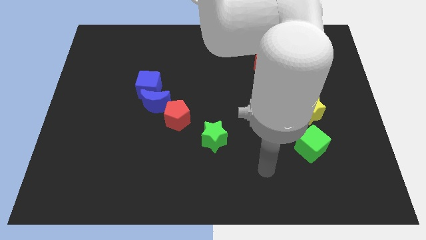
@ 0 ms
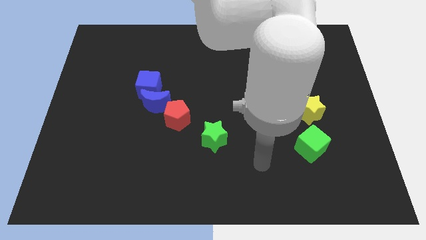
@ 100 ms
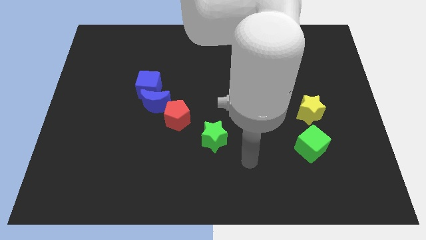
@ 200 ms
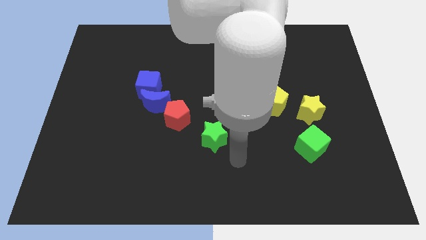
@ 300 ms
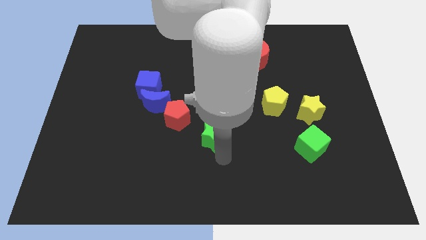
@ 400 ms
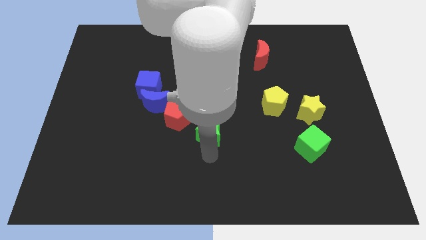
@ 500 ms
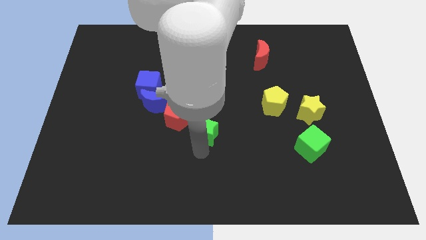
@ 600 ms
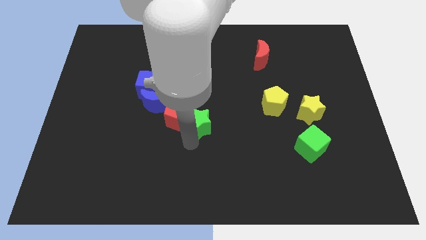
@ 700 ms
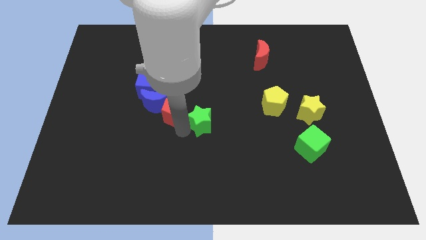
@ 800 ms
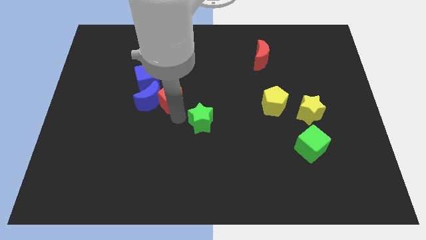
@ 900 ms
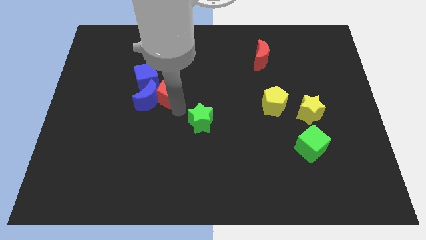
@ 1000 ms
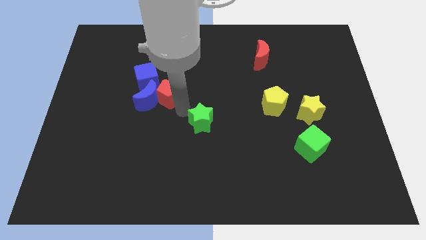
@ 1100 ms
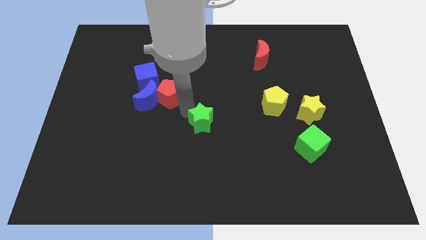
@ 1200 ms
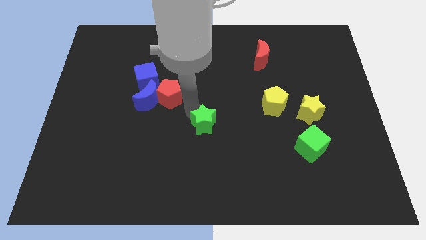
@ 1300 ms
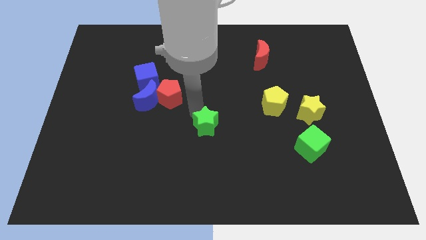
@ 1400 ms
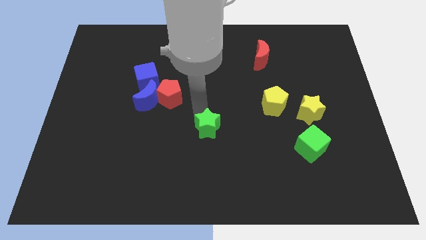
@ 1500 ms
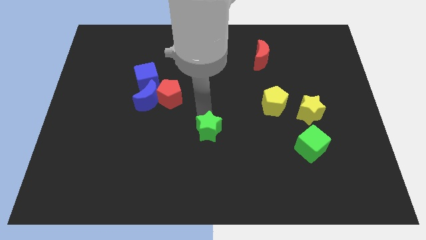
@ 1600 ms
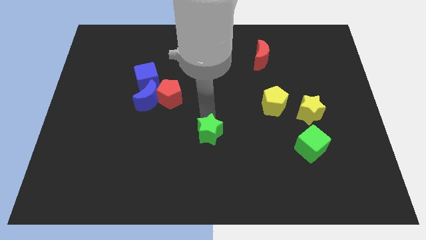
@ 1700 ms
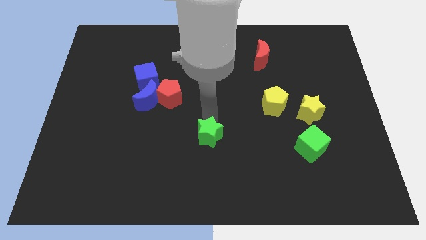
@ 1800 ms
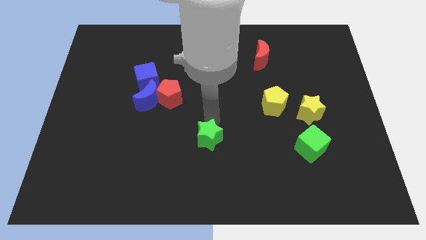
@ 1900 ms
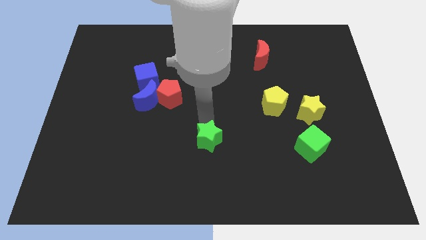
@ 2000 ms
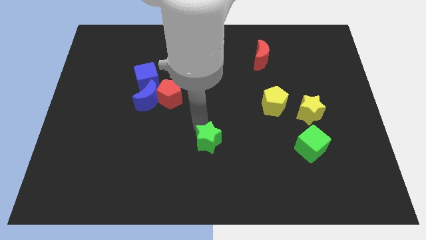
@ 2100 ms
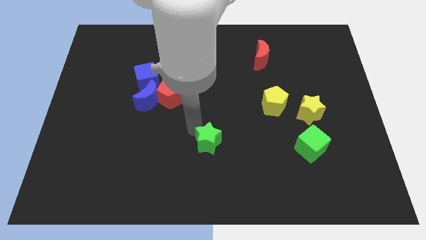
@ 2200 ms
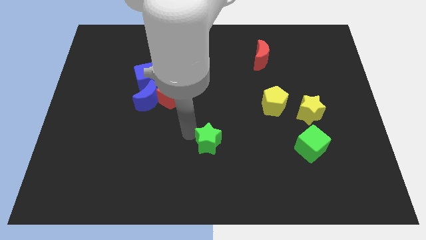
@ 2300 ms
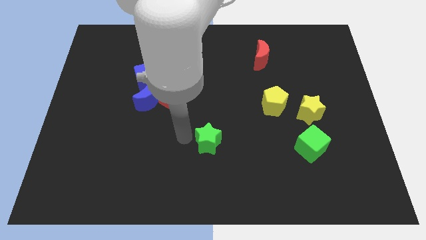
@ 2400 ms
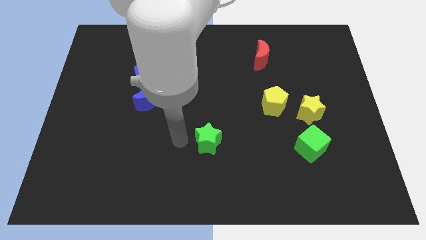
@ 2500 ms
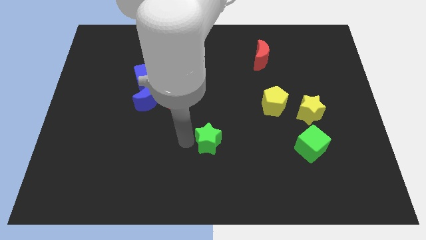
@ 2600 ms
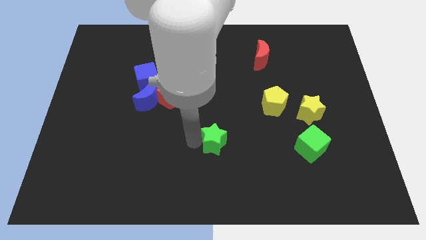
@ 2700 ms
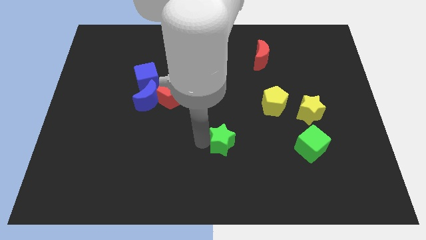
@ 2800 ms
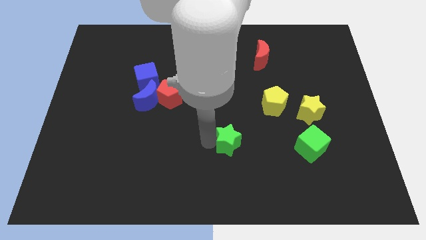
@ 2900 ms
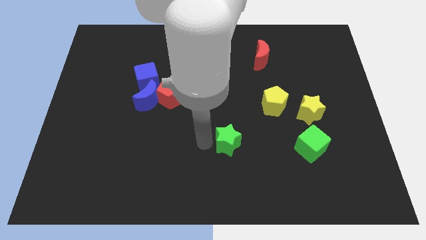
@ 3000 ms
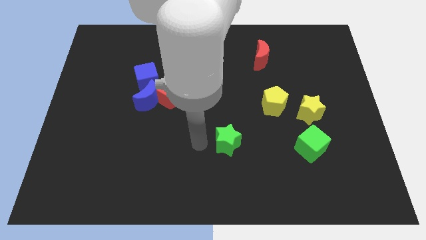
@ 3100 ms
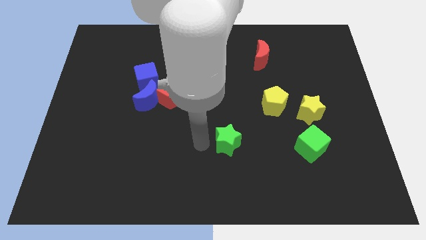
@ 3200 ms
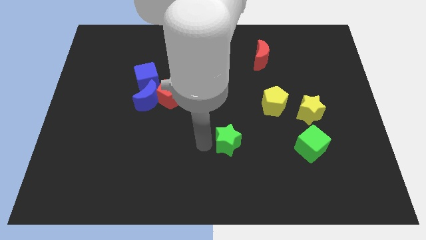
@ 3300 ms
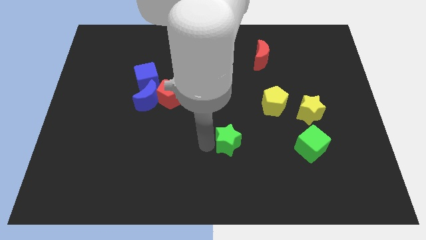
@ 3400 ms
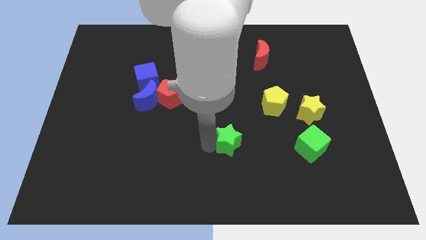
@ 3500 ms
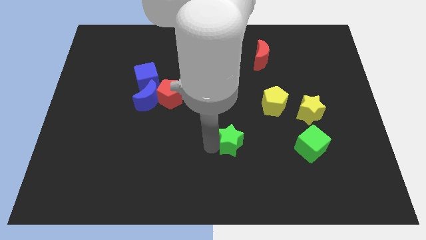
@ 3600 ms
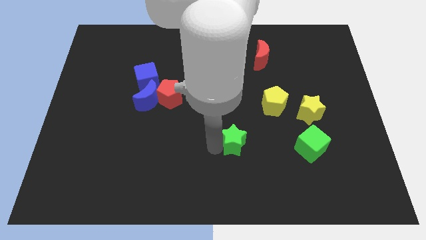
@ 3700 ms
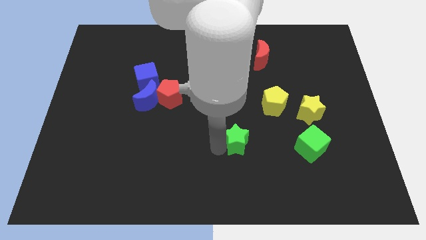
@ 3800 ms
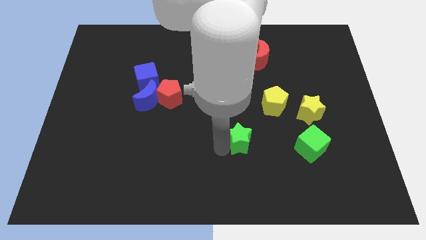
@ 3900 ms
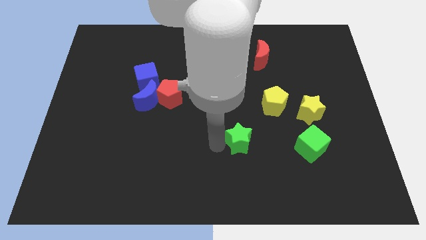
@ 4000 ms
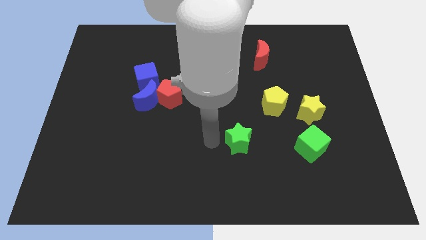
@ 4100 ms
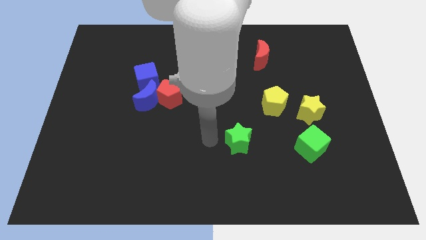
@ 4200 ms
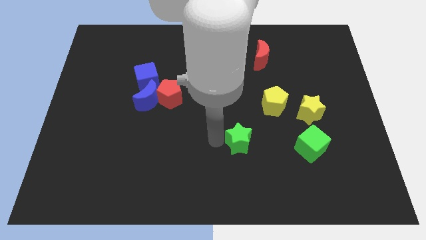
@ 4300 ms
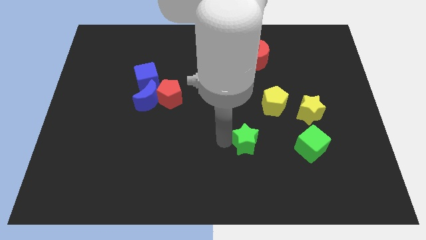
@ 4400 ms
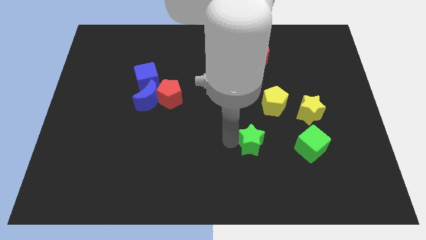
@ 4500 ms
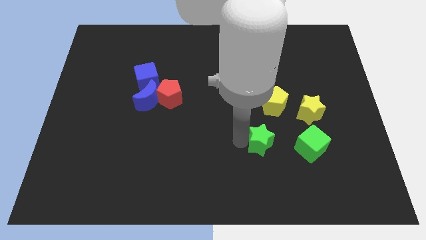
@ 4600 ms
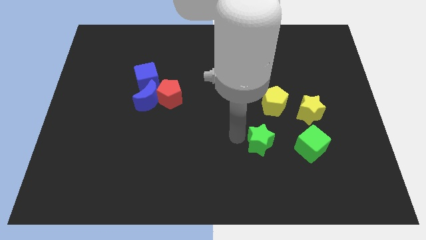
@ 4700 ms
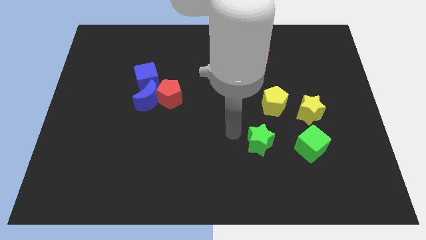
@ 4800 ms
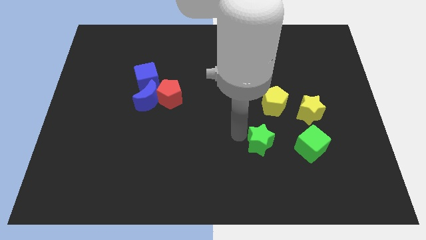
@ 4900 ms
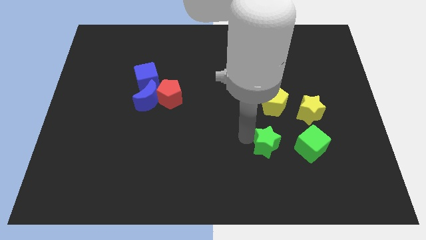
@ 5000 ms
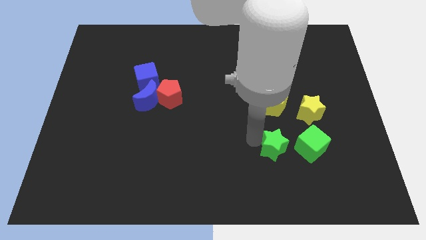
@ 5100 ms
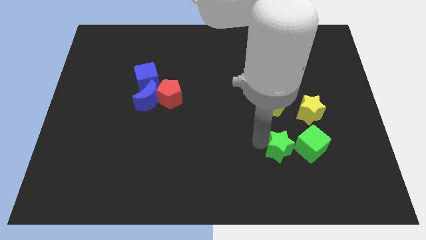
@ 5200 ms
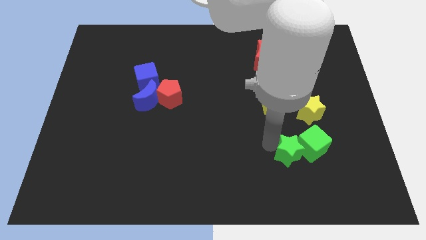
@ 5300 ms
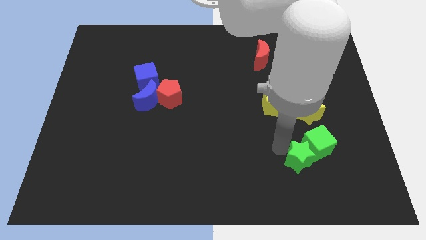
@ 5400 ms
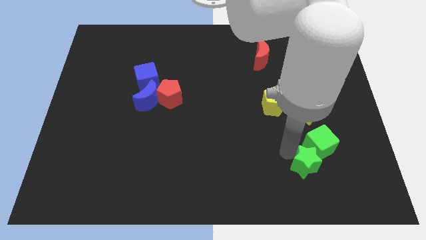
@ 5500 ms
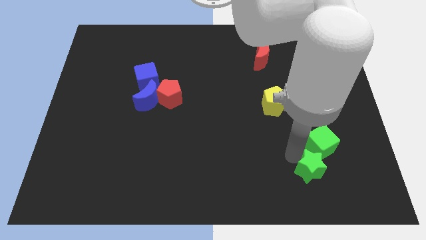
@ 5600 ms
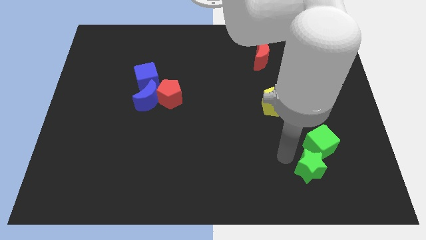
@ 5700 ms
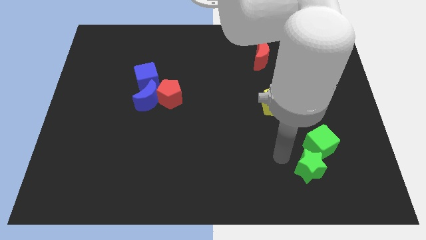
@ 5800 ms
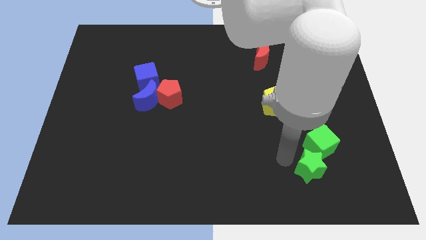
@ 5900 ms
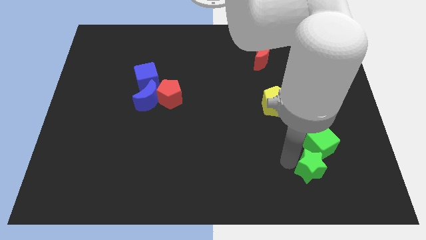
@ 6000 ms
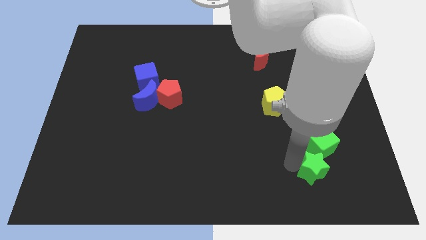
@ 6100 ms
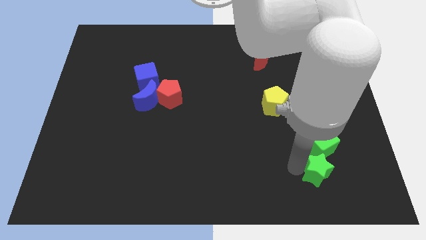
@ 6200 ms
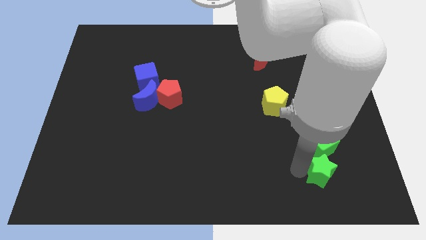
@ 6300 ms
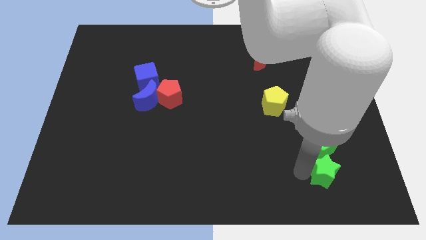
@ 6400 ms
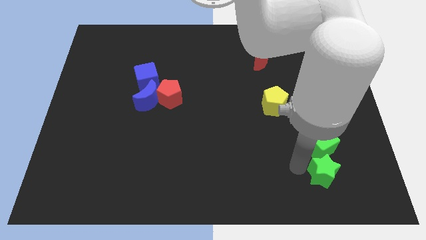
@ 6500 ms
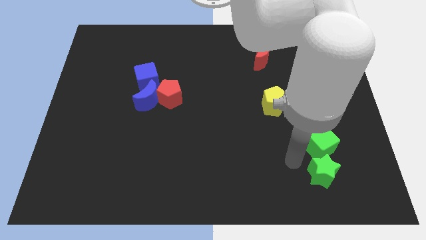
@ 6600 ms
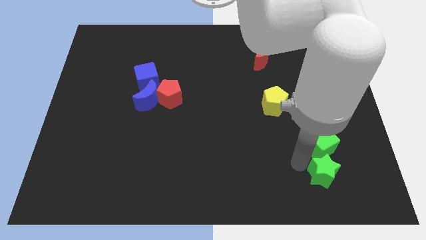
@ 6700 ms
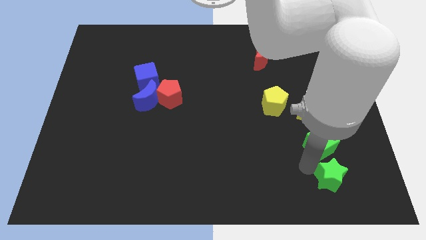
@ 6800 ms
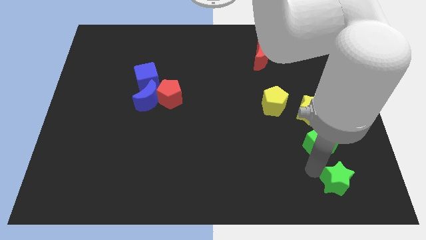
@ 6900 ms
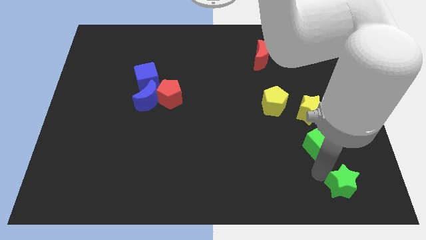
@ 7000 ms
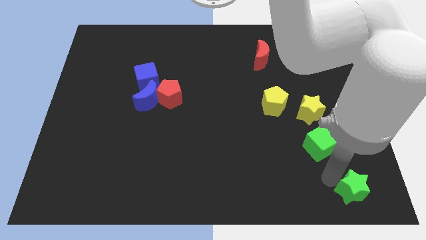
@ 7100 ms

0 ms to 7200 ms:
push the green star to the lower right corner
